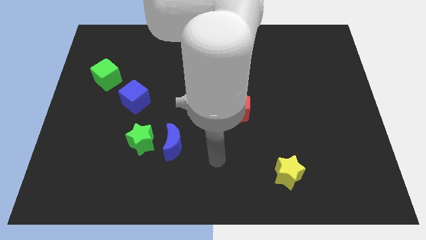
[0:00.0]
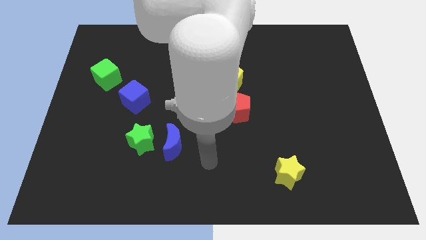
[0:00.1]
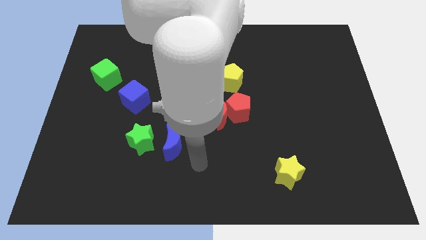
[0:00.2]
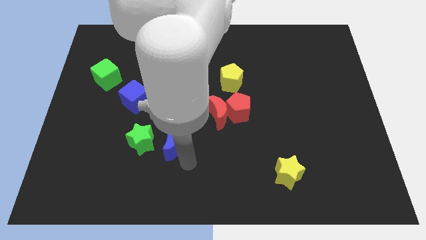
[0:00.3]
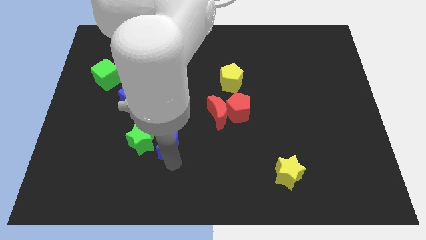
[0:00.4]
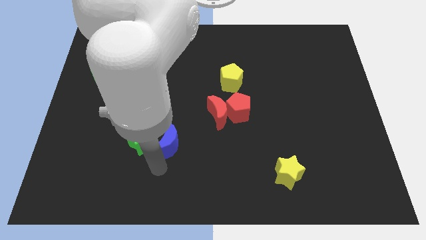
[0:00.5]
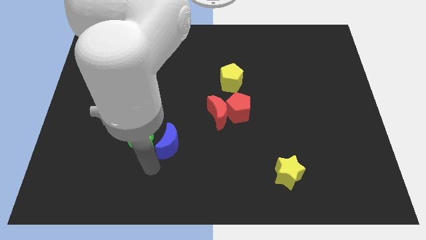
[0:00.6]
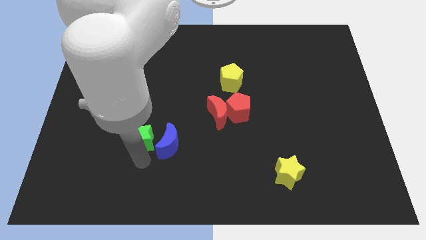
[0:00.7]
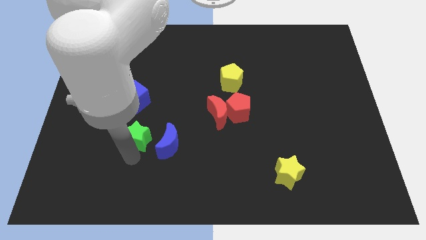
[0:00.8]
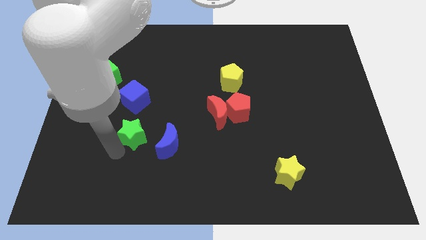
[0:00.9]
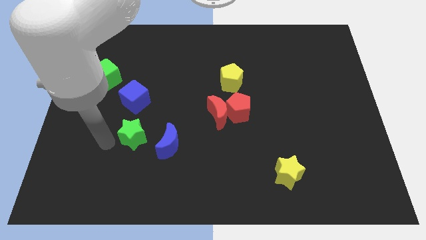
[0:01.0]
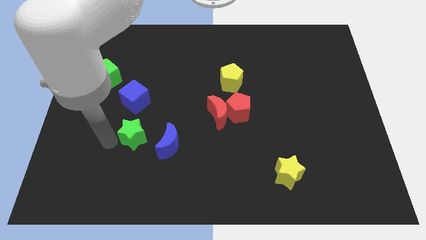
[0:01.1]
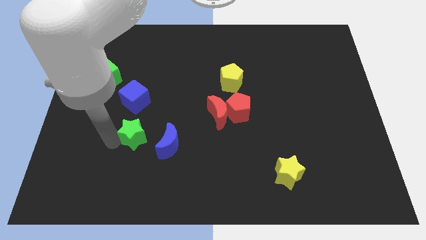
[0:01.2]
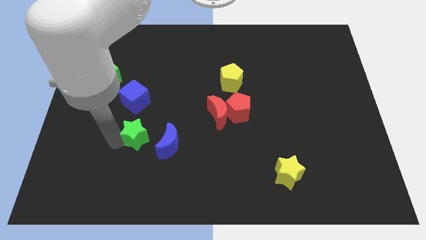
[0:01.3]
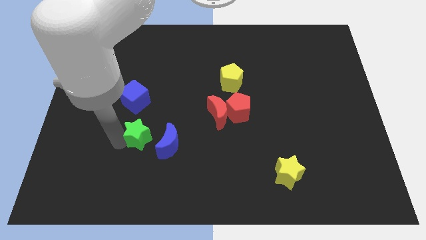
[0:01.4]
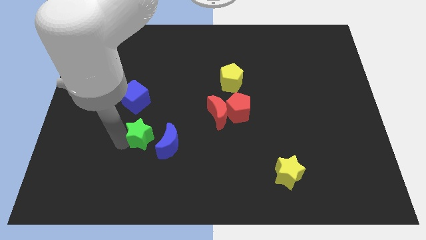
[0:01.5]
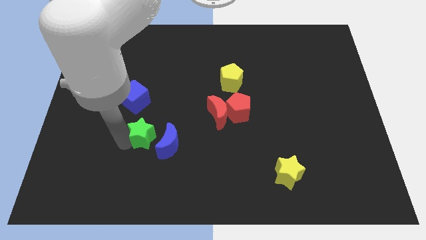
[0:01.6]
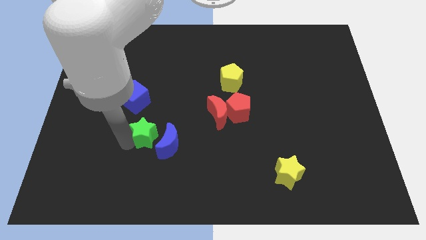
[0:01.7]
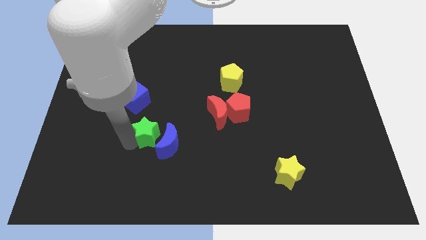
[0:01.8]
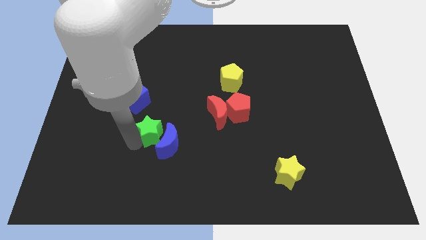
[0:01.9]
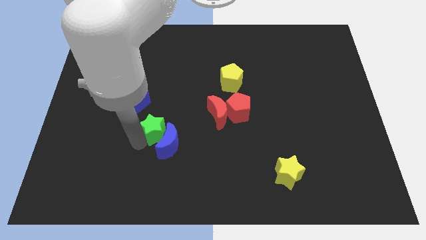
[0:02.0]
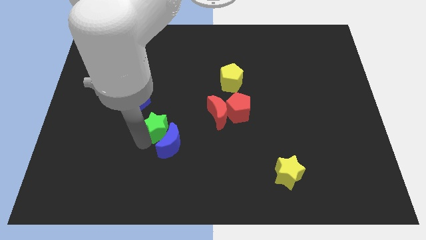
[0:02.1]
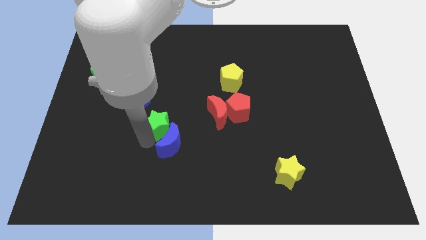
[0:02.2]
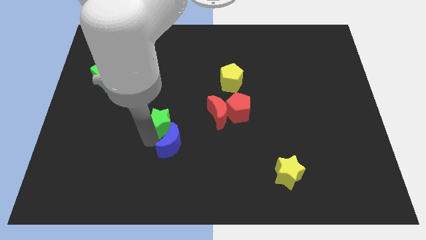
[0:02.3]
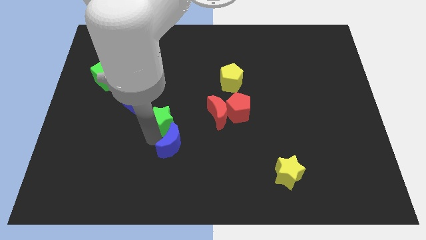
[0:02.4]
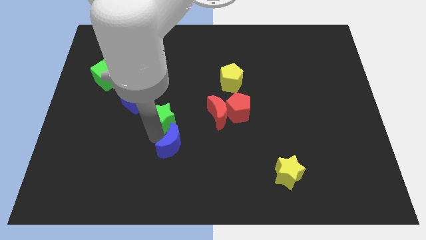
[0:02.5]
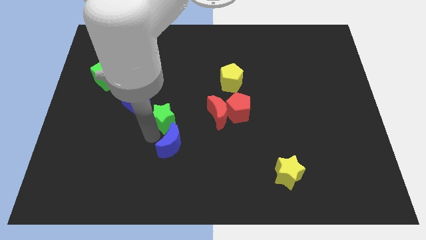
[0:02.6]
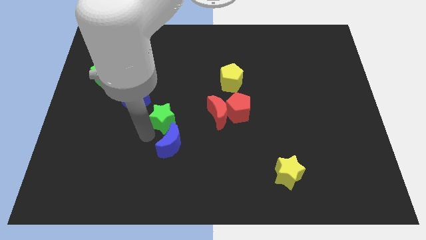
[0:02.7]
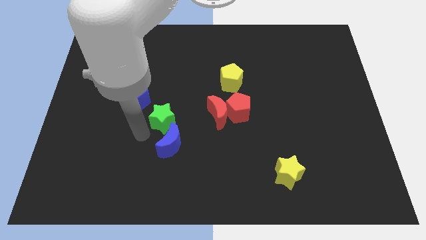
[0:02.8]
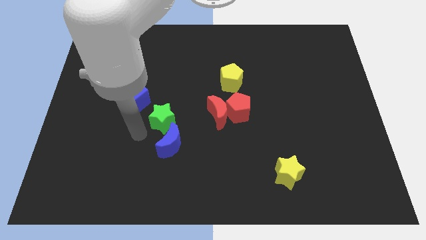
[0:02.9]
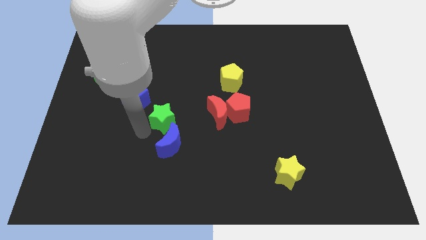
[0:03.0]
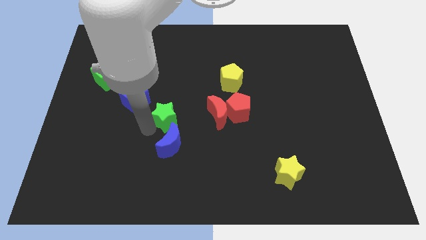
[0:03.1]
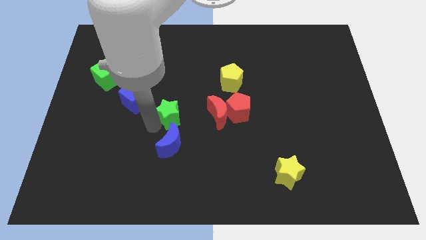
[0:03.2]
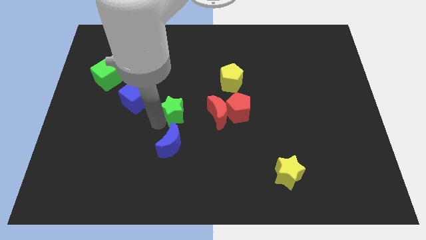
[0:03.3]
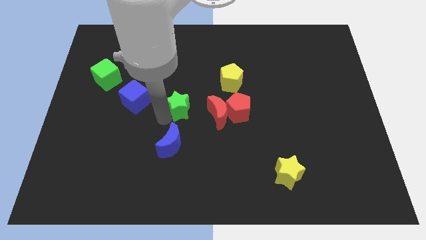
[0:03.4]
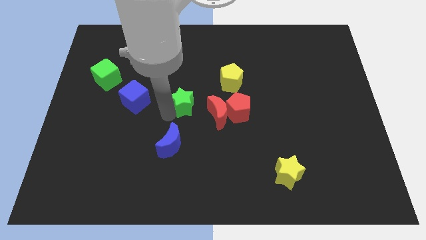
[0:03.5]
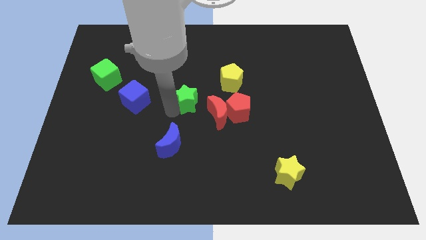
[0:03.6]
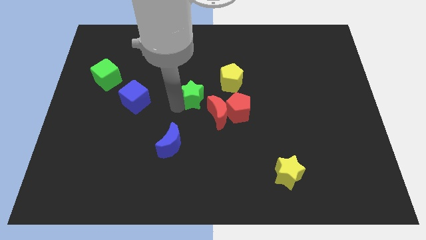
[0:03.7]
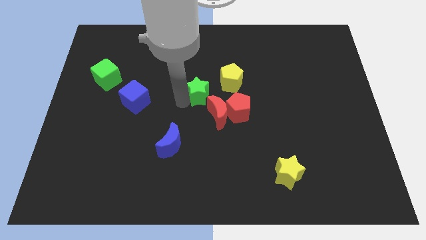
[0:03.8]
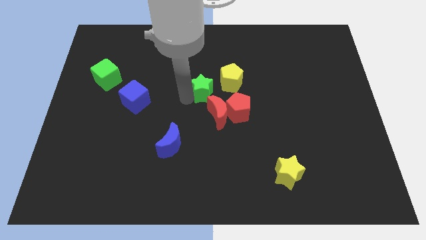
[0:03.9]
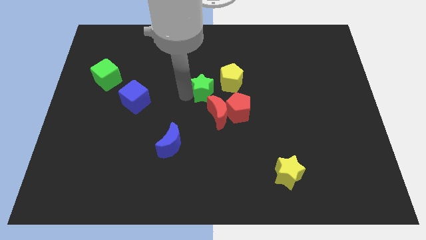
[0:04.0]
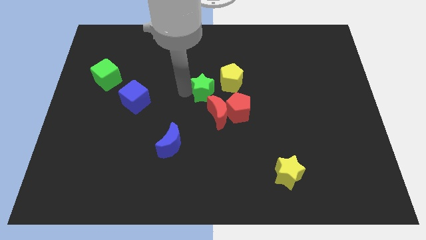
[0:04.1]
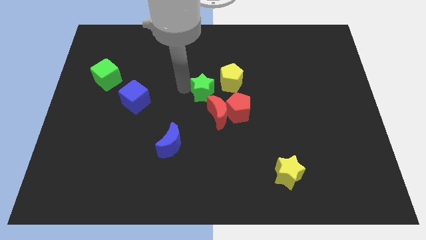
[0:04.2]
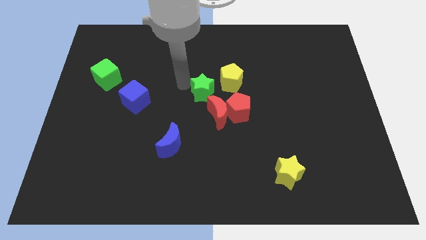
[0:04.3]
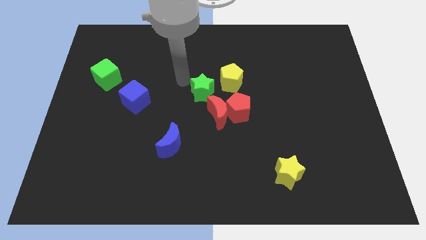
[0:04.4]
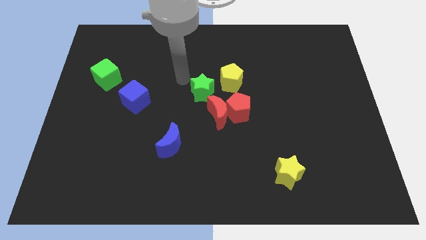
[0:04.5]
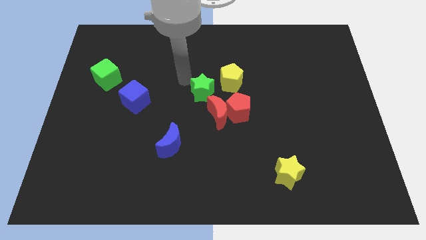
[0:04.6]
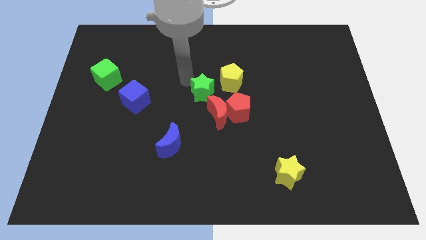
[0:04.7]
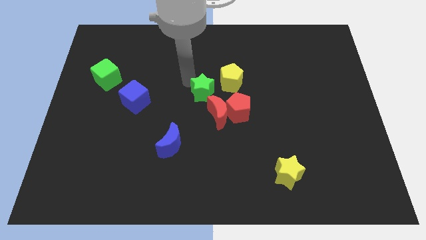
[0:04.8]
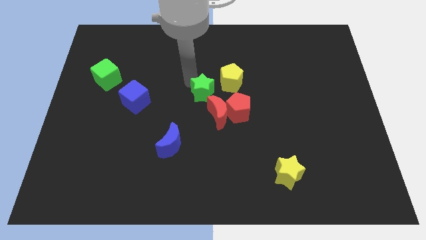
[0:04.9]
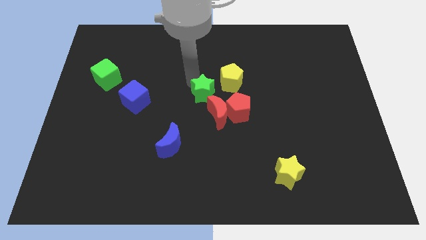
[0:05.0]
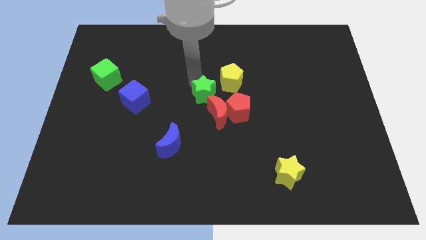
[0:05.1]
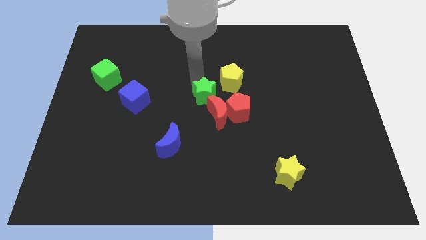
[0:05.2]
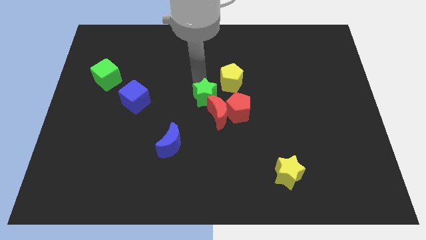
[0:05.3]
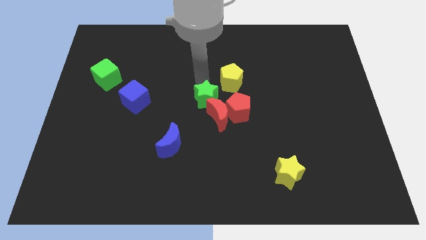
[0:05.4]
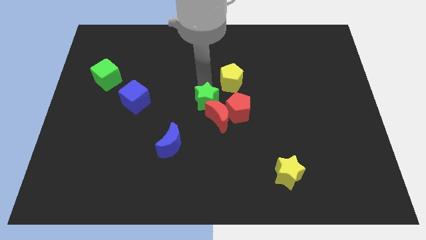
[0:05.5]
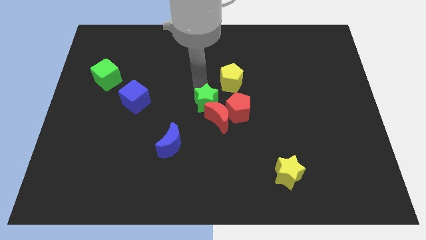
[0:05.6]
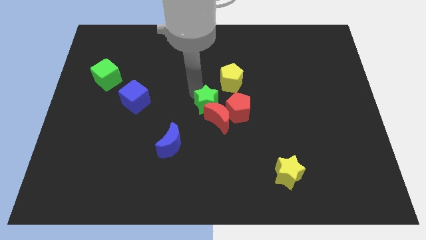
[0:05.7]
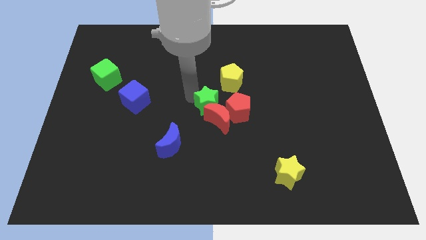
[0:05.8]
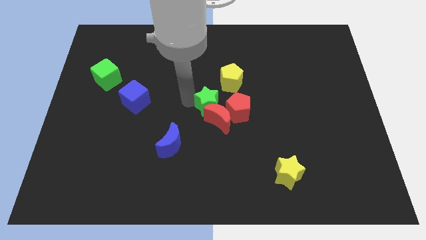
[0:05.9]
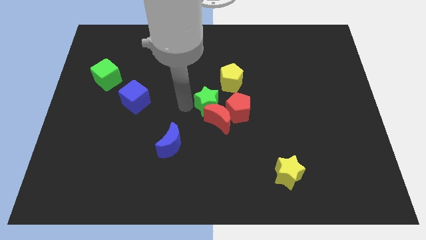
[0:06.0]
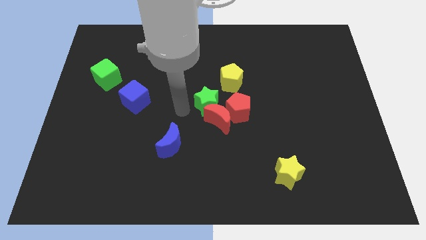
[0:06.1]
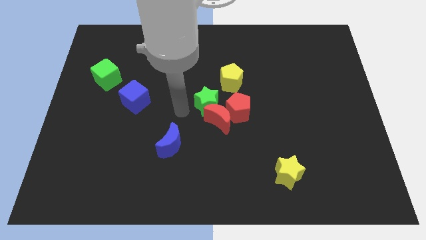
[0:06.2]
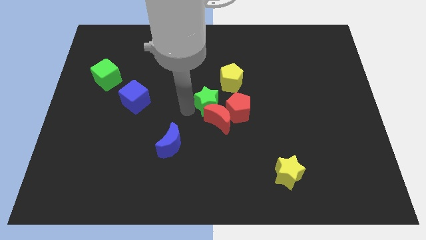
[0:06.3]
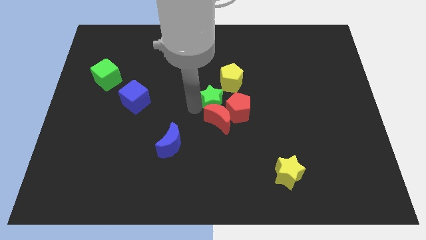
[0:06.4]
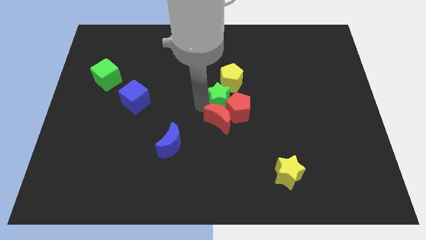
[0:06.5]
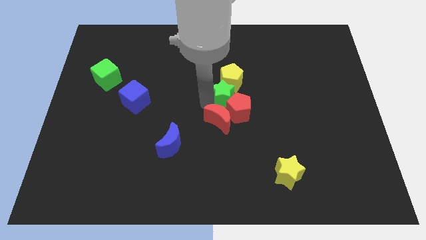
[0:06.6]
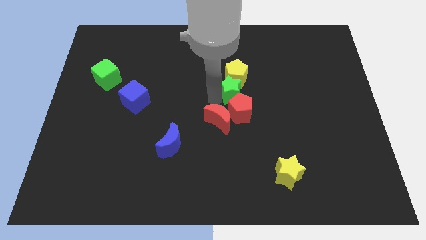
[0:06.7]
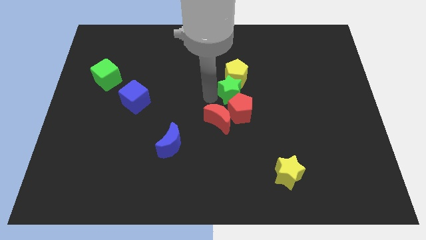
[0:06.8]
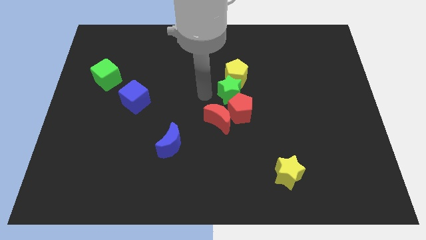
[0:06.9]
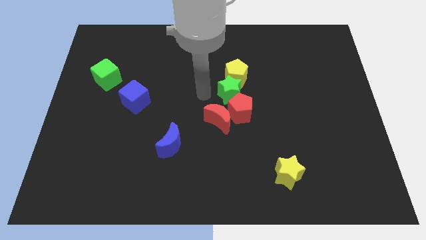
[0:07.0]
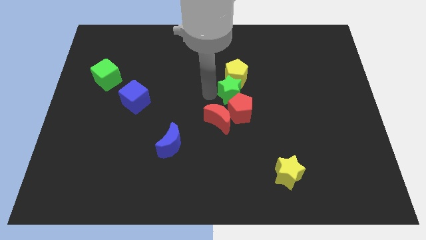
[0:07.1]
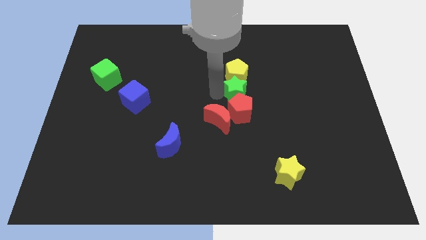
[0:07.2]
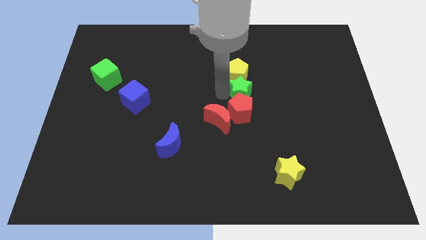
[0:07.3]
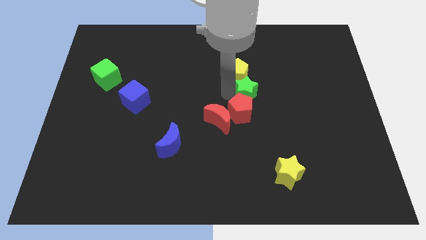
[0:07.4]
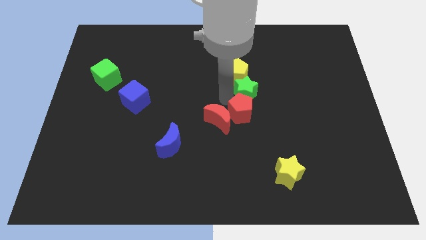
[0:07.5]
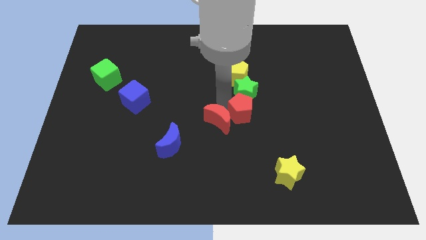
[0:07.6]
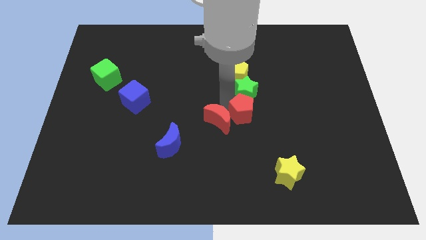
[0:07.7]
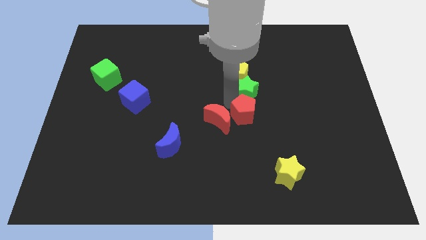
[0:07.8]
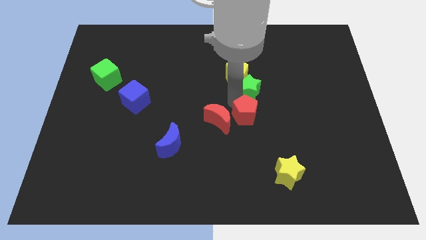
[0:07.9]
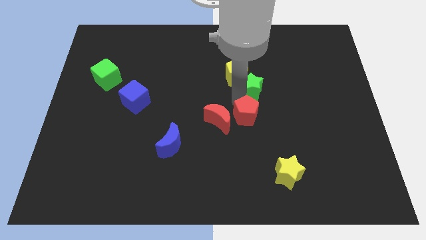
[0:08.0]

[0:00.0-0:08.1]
move the green star to the right side of the yellow pentagon

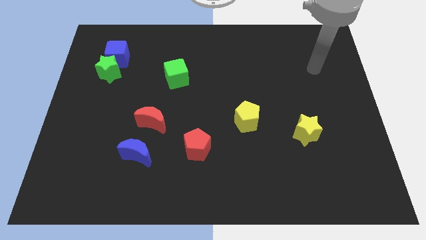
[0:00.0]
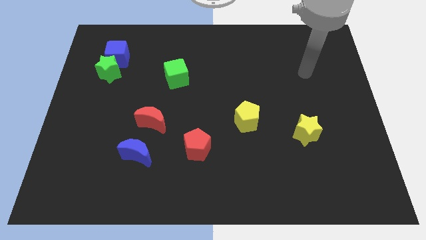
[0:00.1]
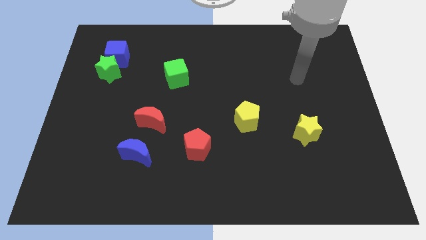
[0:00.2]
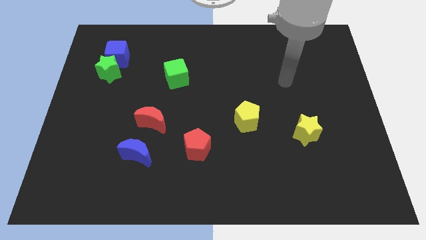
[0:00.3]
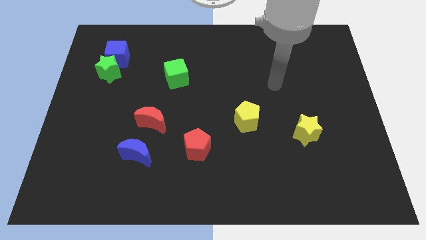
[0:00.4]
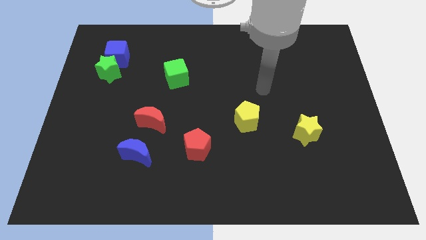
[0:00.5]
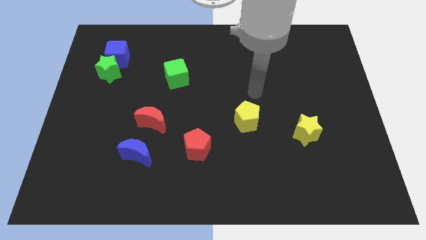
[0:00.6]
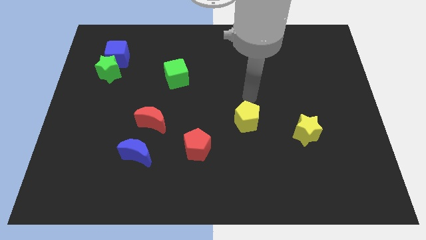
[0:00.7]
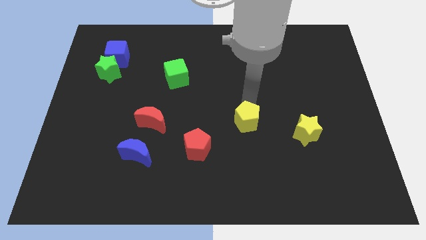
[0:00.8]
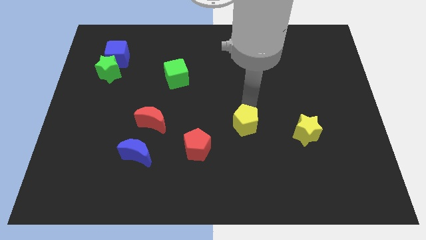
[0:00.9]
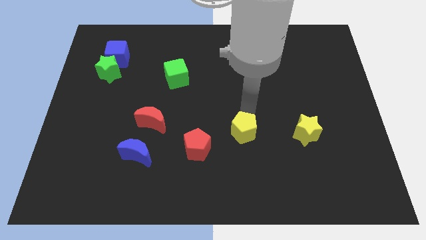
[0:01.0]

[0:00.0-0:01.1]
put the yellow pentagon to the right side of the red pentagon
